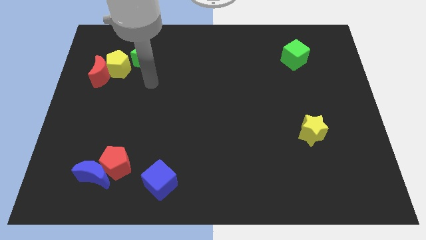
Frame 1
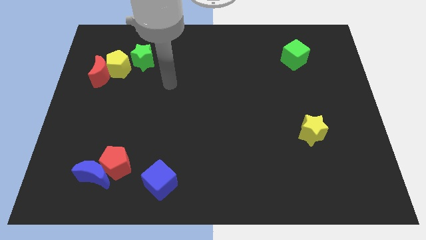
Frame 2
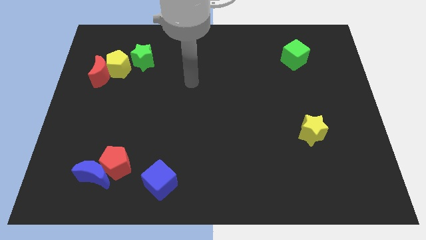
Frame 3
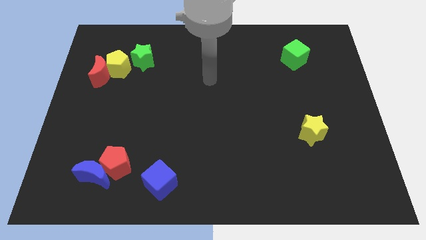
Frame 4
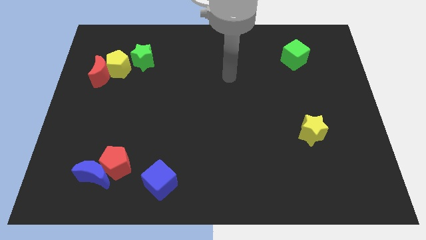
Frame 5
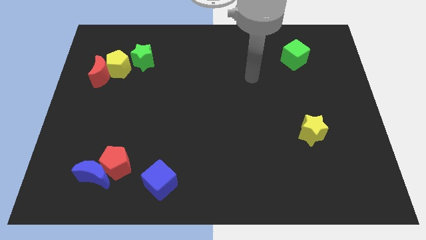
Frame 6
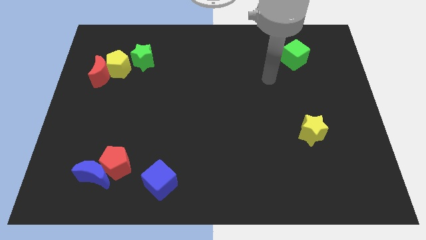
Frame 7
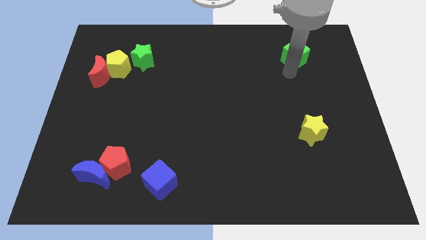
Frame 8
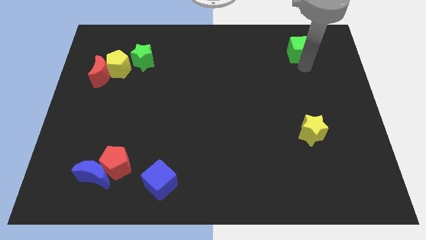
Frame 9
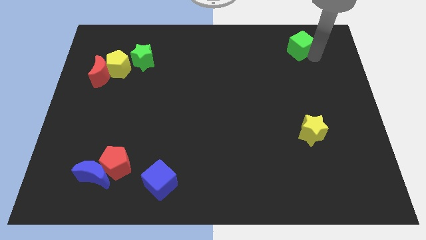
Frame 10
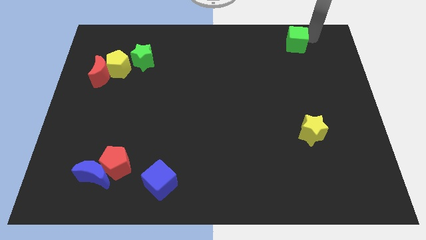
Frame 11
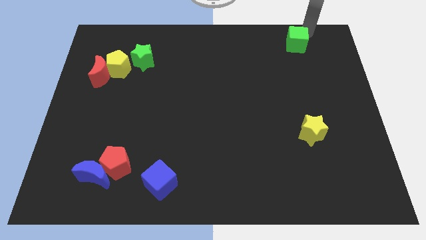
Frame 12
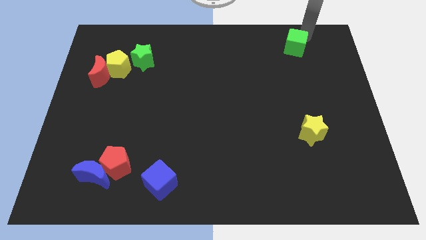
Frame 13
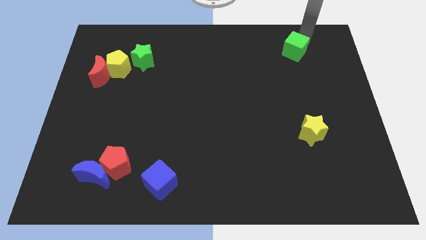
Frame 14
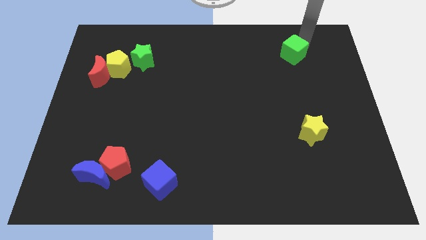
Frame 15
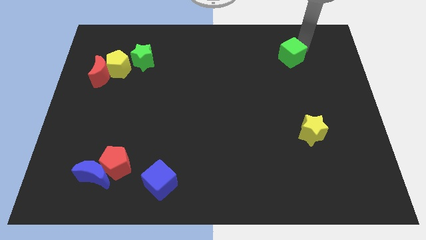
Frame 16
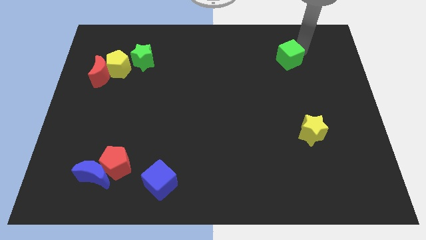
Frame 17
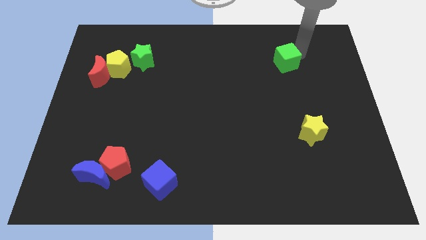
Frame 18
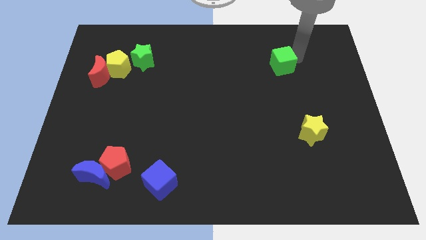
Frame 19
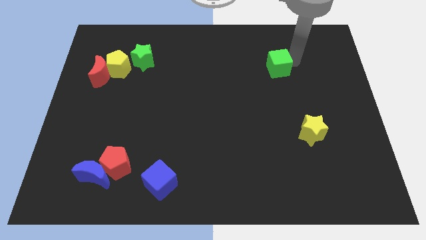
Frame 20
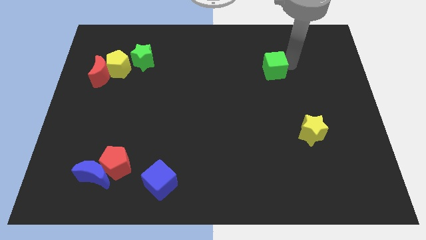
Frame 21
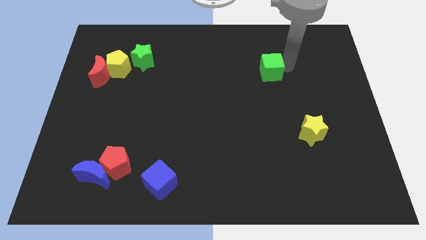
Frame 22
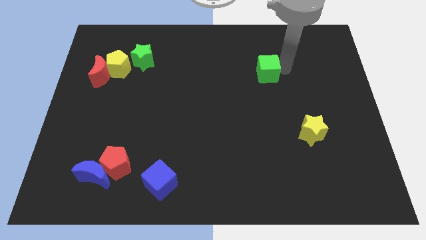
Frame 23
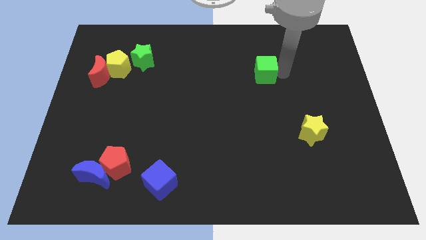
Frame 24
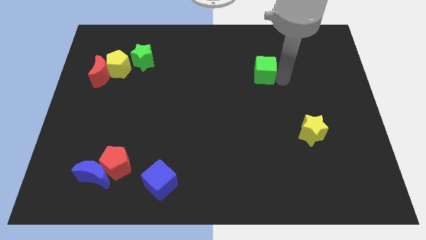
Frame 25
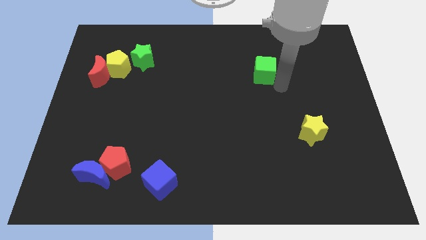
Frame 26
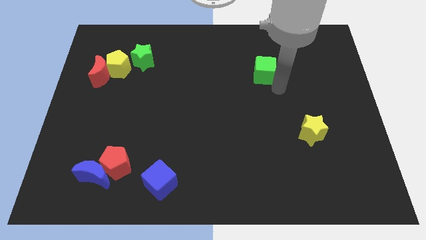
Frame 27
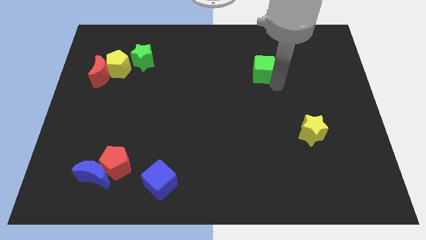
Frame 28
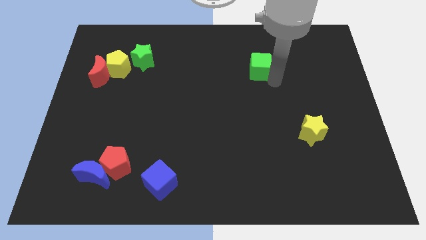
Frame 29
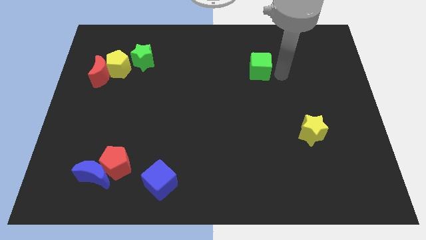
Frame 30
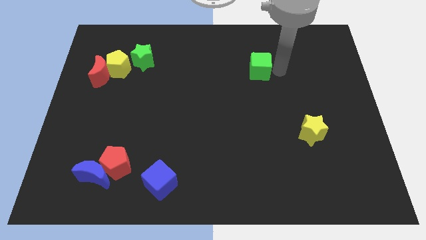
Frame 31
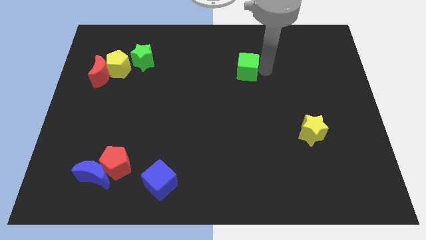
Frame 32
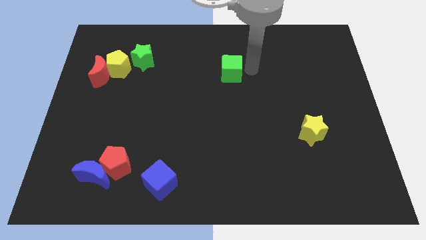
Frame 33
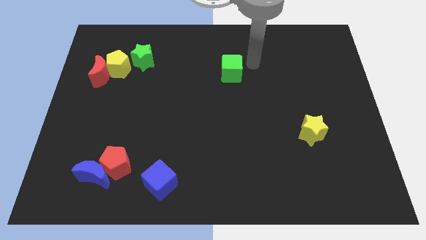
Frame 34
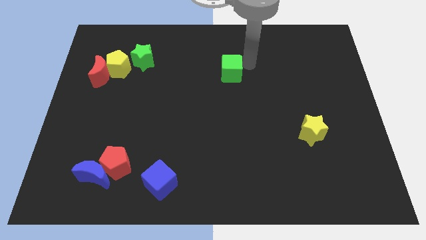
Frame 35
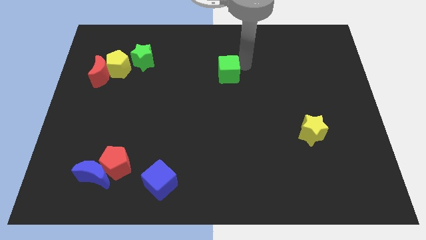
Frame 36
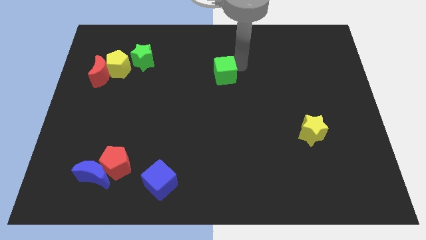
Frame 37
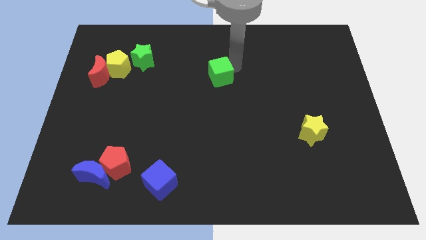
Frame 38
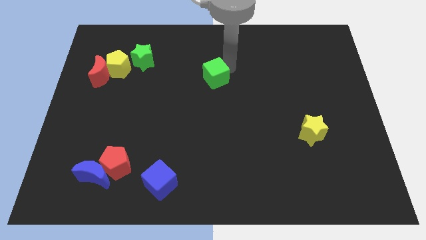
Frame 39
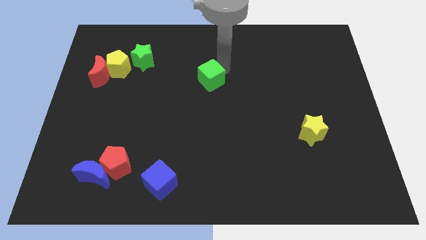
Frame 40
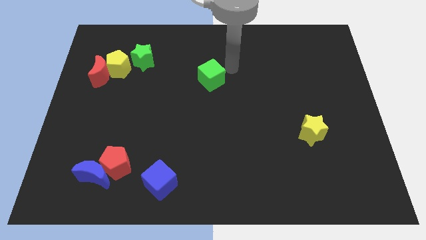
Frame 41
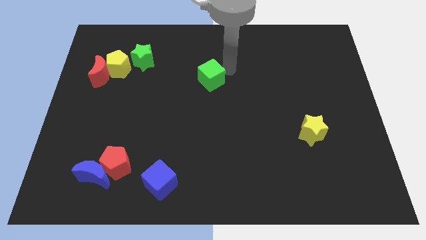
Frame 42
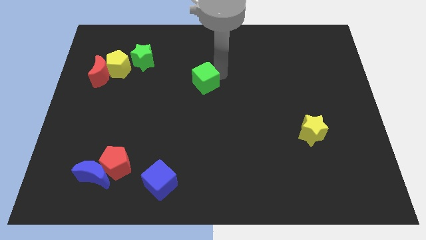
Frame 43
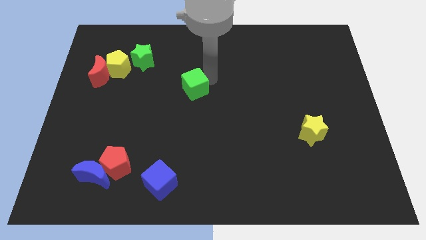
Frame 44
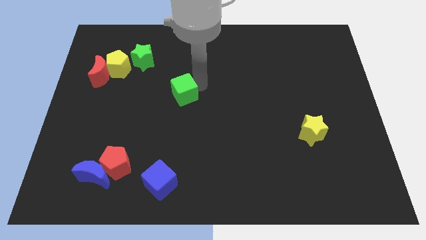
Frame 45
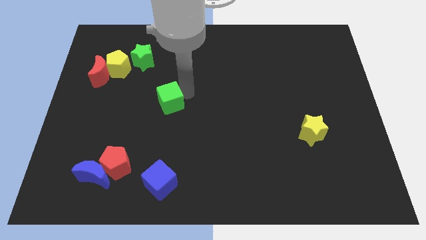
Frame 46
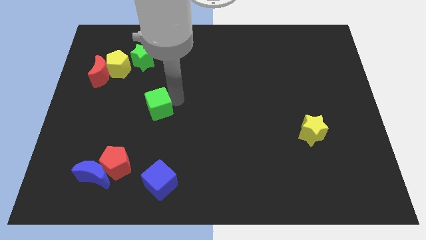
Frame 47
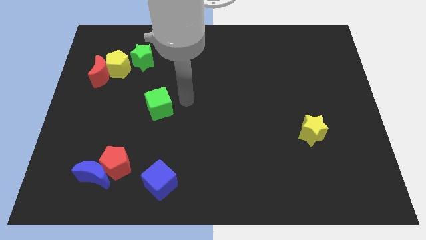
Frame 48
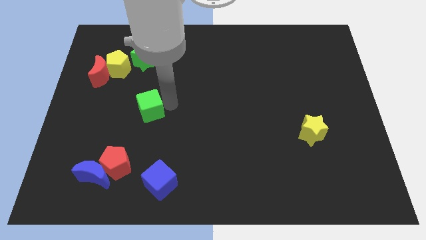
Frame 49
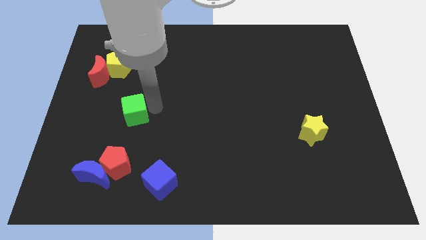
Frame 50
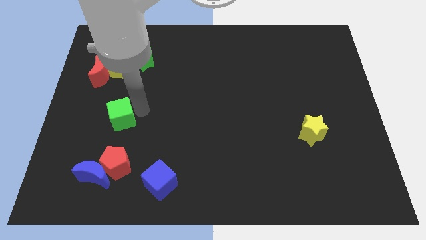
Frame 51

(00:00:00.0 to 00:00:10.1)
move the green cube above the blue moon
